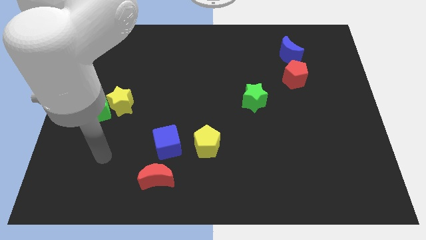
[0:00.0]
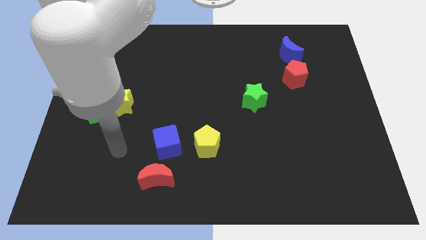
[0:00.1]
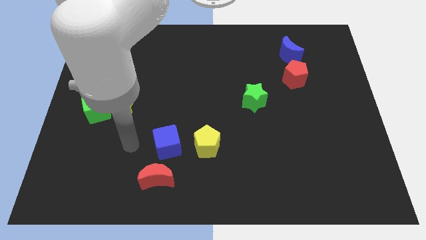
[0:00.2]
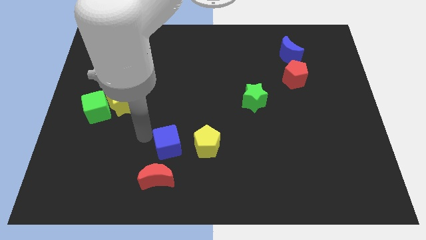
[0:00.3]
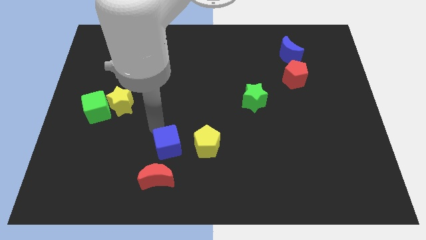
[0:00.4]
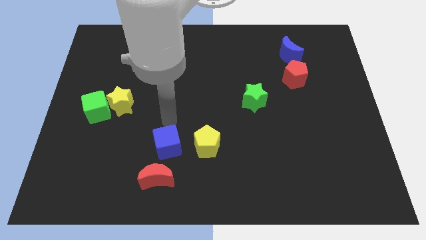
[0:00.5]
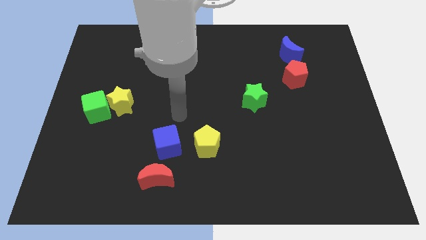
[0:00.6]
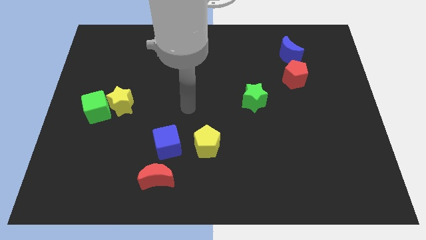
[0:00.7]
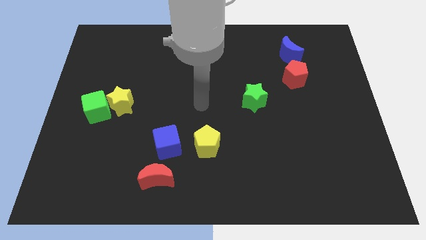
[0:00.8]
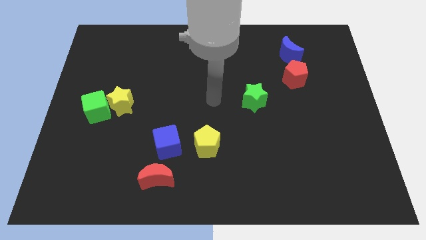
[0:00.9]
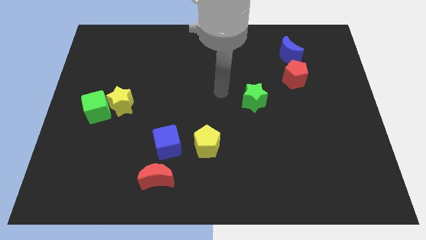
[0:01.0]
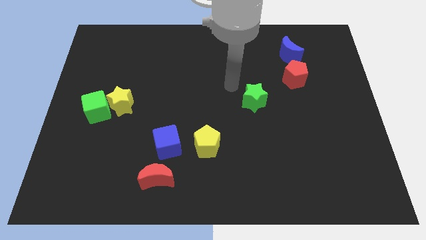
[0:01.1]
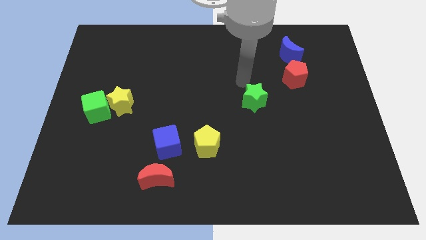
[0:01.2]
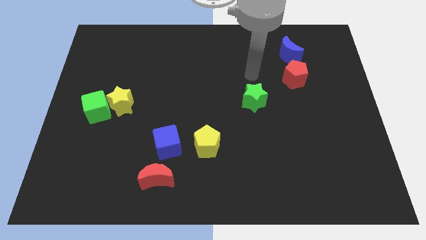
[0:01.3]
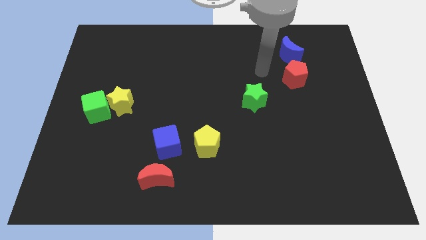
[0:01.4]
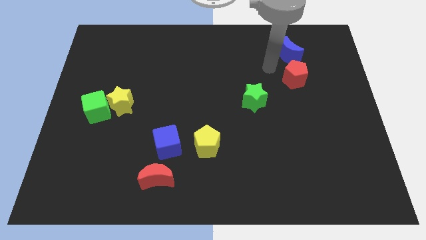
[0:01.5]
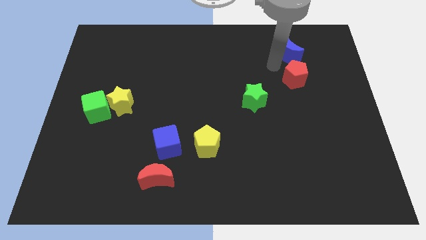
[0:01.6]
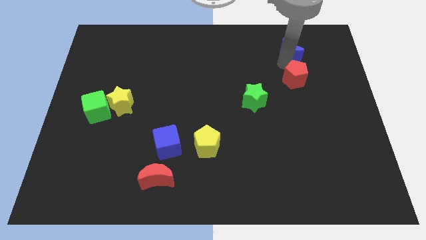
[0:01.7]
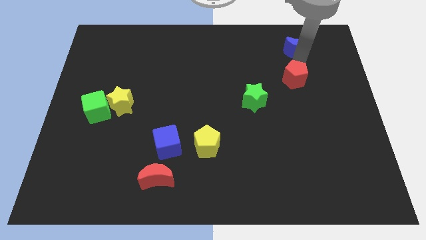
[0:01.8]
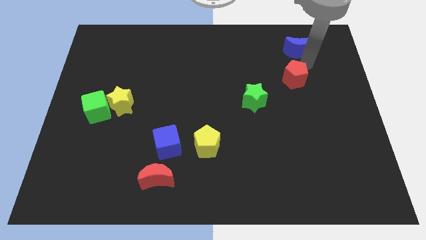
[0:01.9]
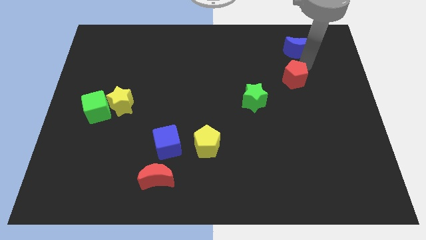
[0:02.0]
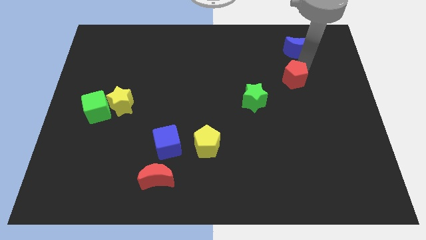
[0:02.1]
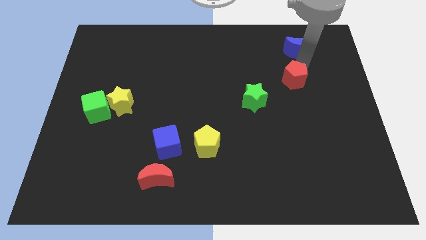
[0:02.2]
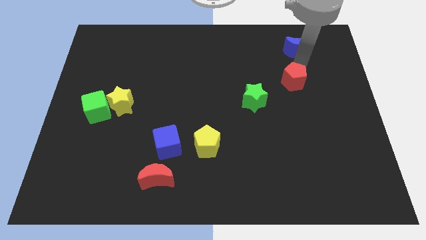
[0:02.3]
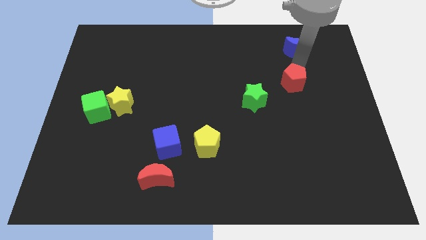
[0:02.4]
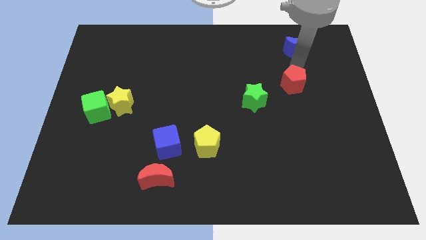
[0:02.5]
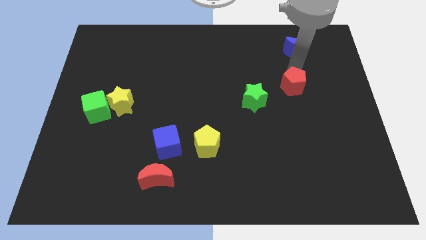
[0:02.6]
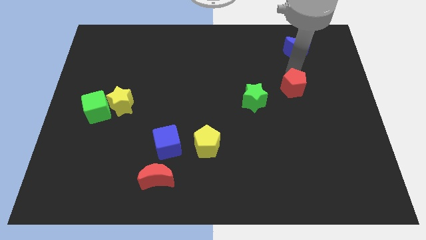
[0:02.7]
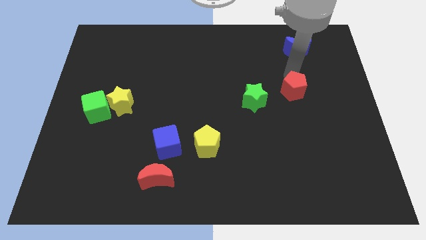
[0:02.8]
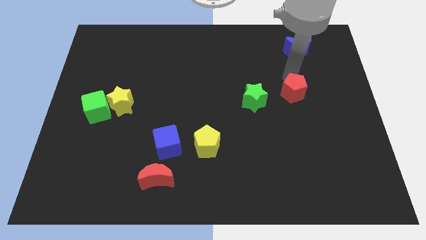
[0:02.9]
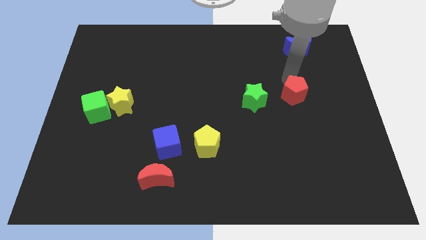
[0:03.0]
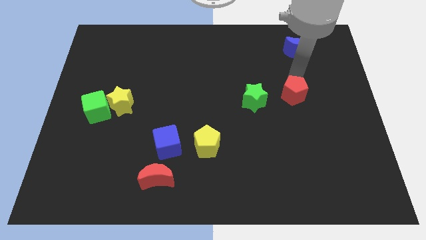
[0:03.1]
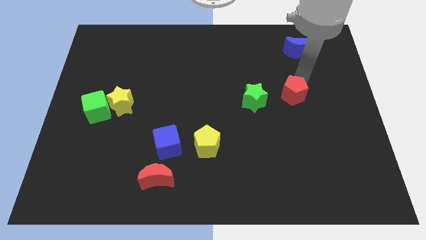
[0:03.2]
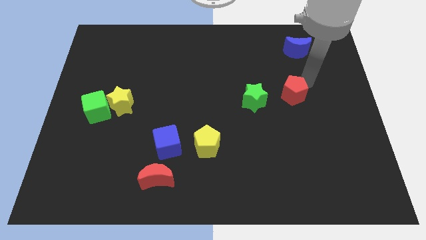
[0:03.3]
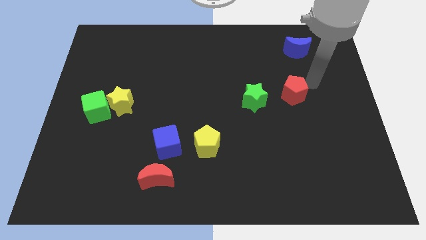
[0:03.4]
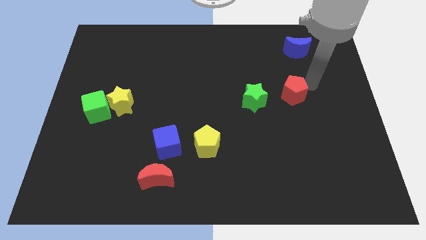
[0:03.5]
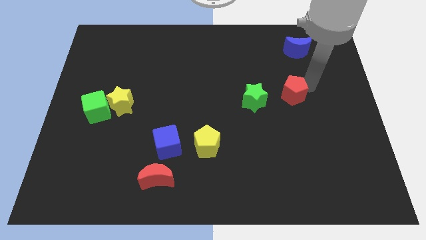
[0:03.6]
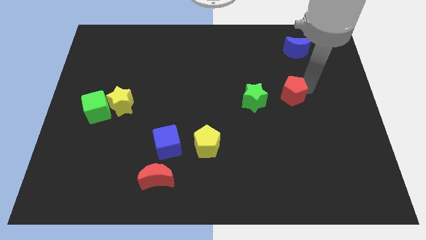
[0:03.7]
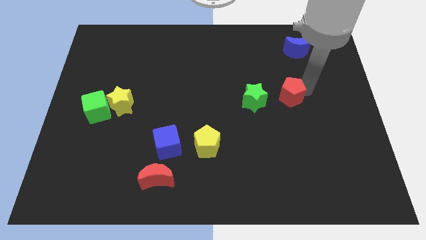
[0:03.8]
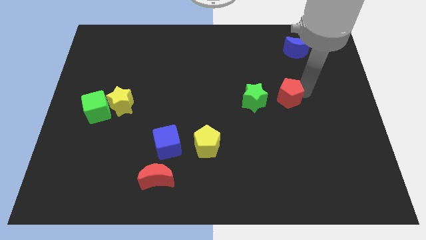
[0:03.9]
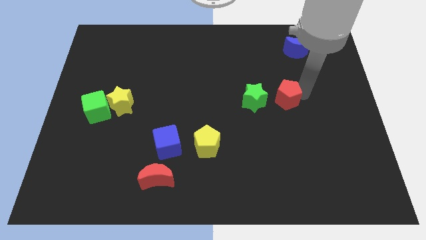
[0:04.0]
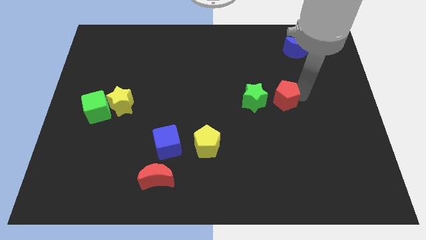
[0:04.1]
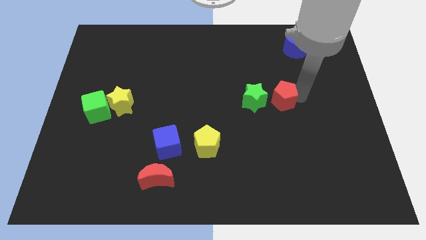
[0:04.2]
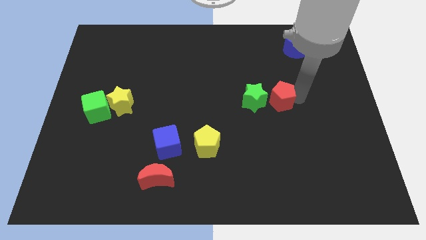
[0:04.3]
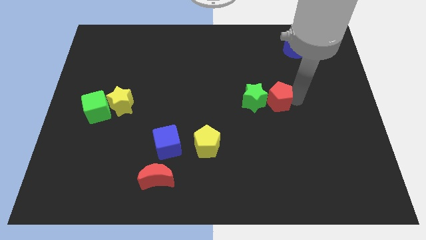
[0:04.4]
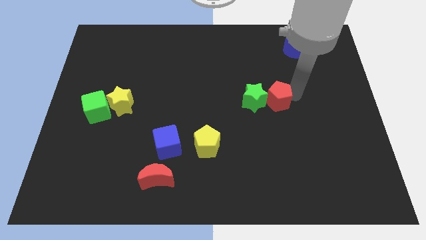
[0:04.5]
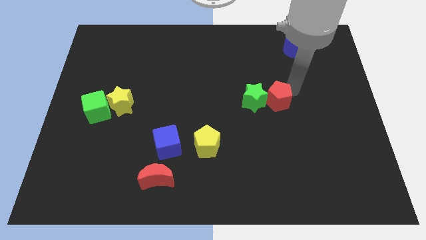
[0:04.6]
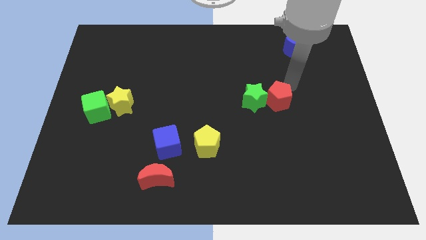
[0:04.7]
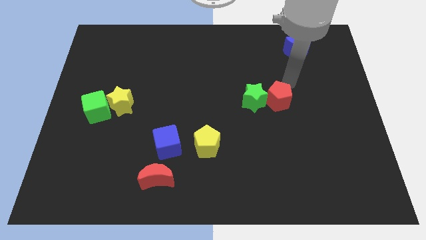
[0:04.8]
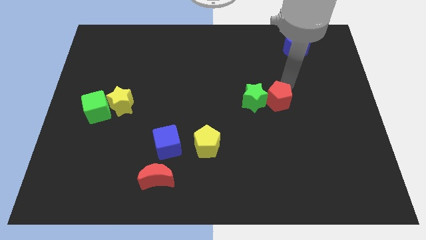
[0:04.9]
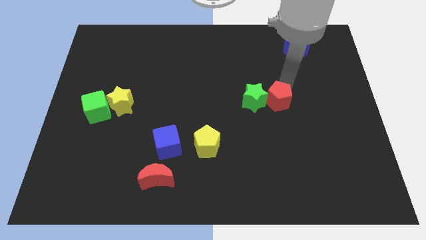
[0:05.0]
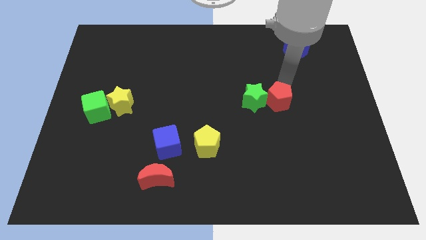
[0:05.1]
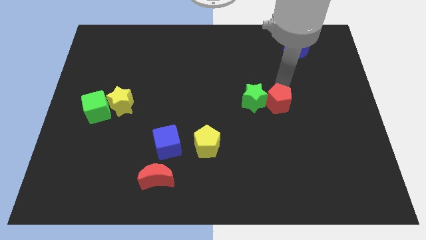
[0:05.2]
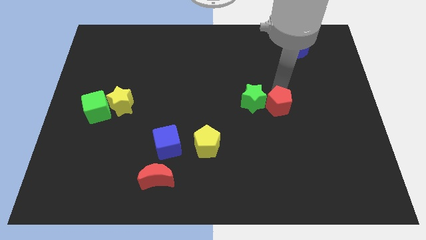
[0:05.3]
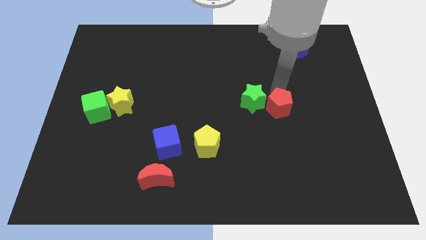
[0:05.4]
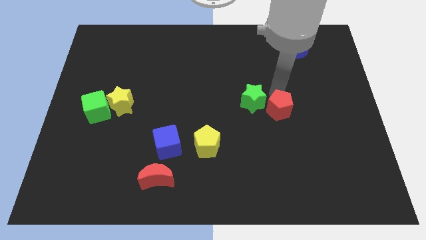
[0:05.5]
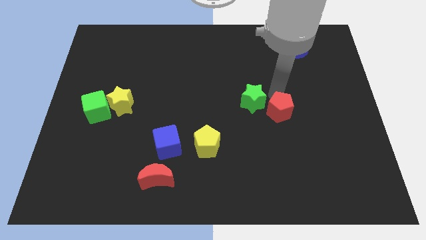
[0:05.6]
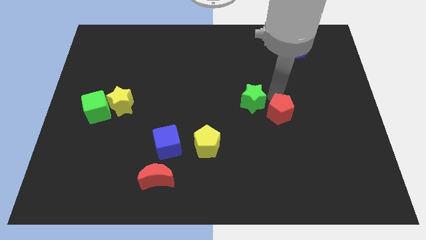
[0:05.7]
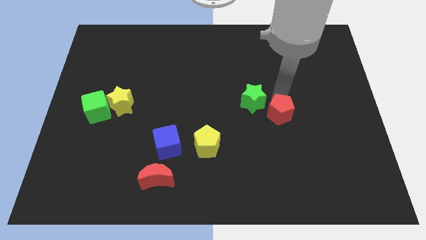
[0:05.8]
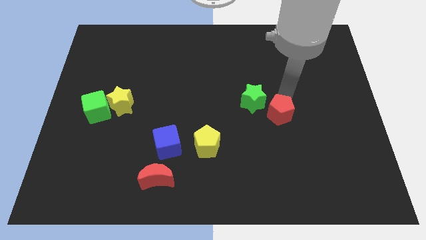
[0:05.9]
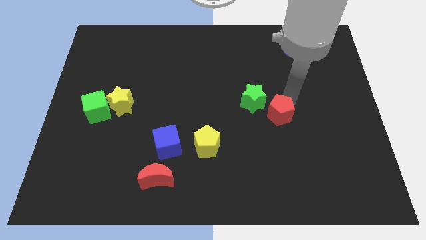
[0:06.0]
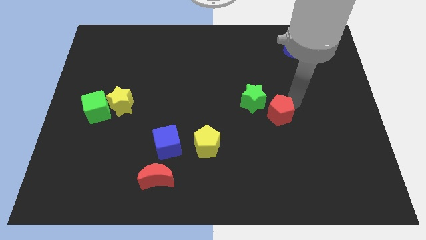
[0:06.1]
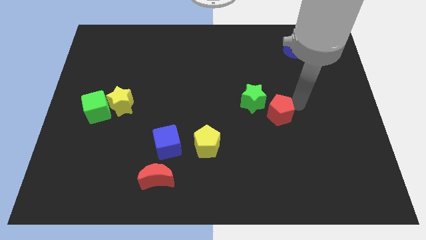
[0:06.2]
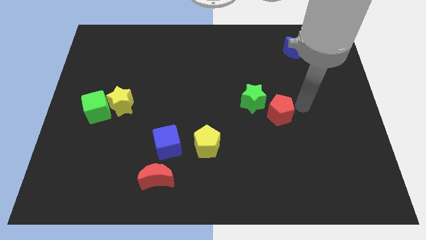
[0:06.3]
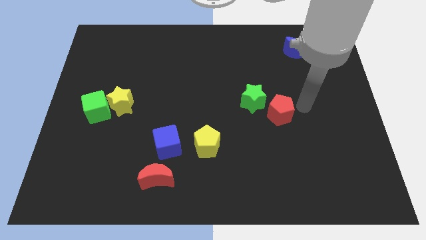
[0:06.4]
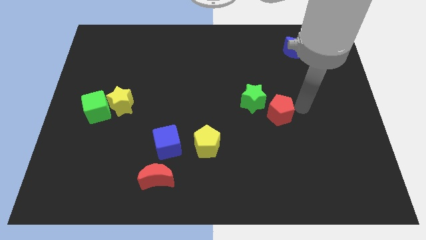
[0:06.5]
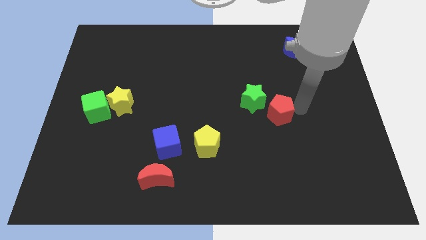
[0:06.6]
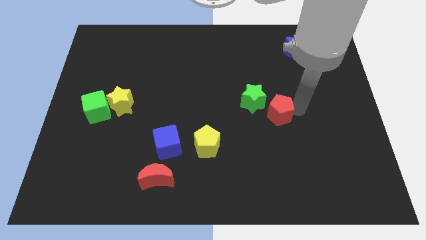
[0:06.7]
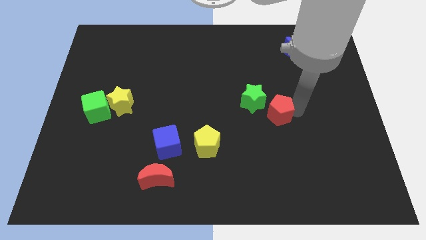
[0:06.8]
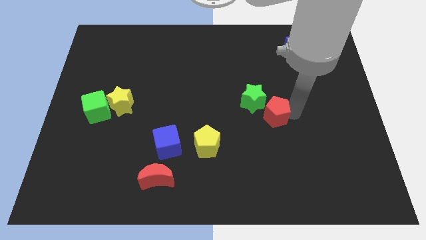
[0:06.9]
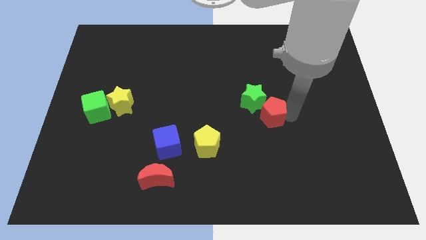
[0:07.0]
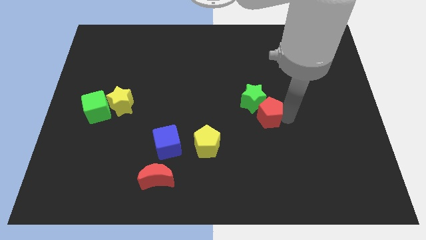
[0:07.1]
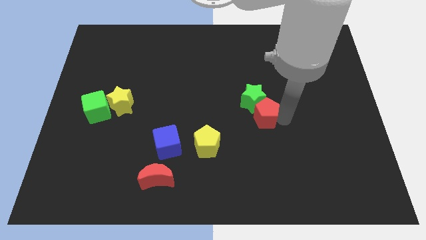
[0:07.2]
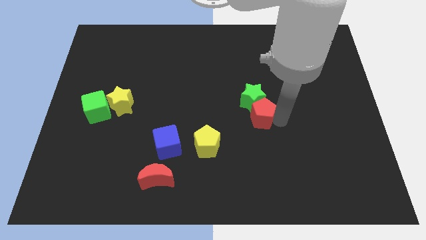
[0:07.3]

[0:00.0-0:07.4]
move the red pentagon to the bottom left side of the green star
